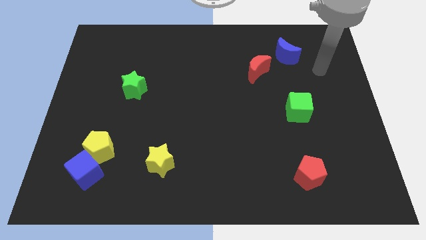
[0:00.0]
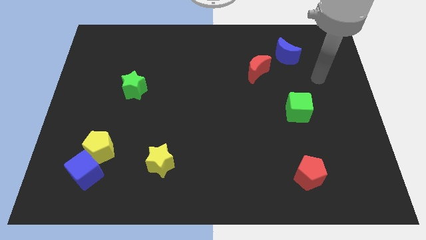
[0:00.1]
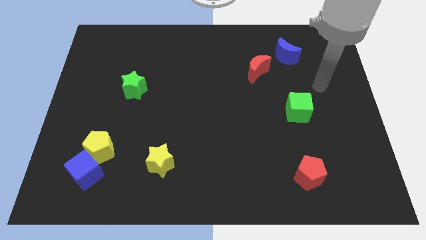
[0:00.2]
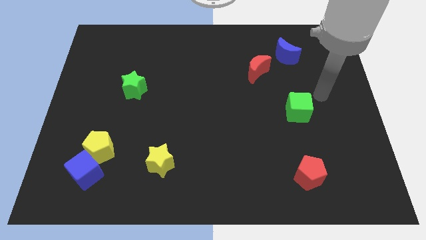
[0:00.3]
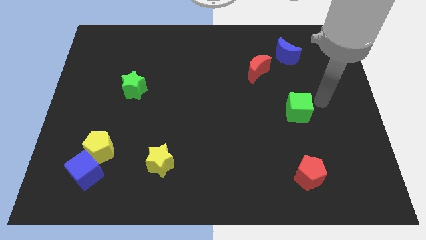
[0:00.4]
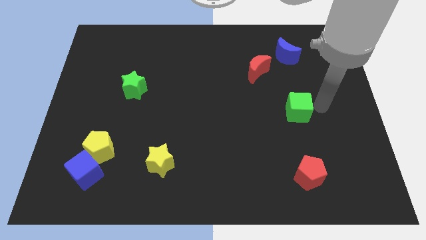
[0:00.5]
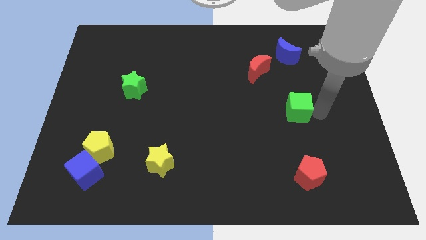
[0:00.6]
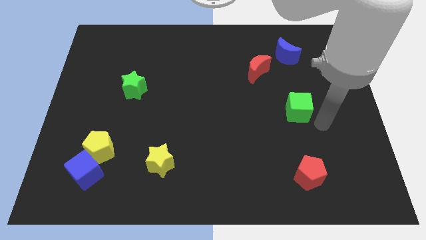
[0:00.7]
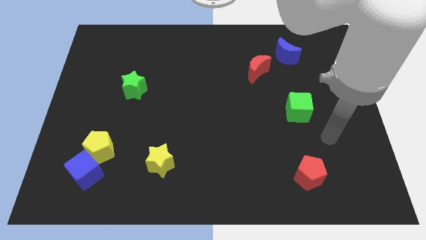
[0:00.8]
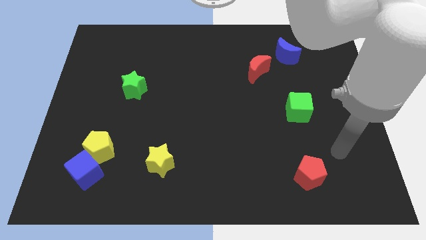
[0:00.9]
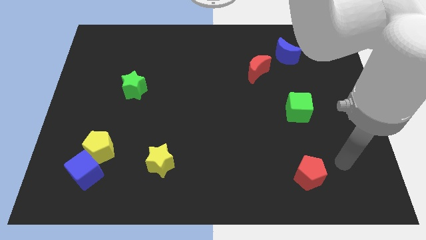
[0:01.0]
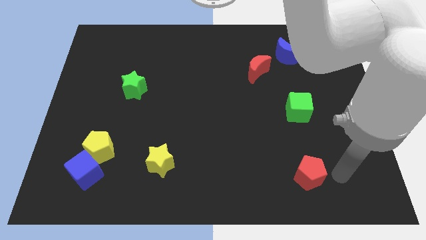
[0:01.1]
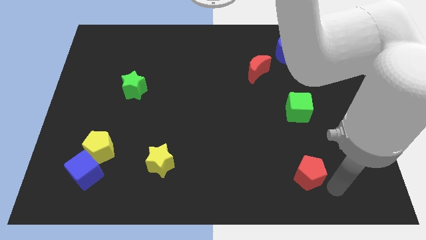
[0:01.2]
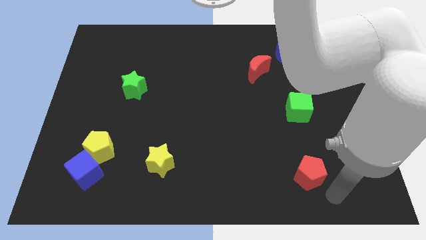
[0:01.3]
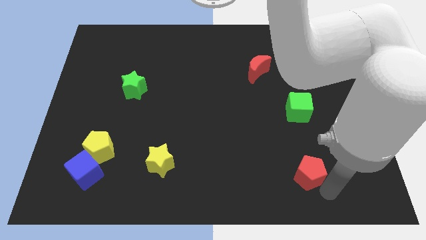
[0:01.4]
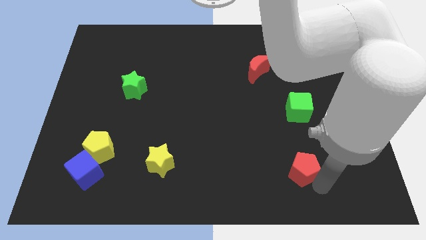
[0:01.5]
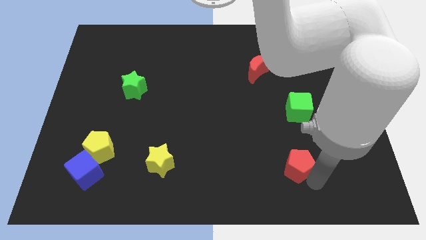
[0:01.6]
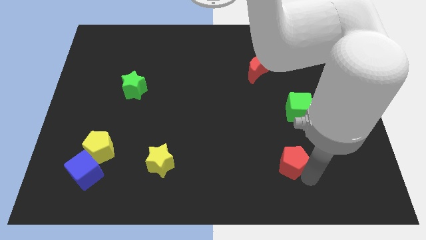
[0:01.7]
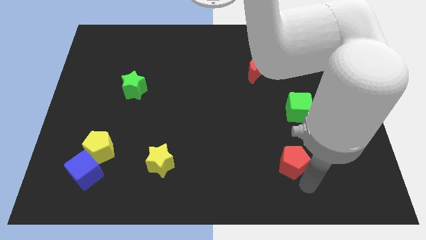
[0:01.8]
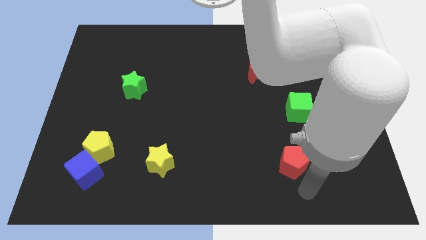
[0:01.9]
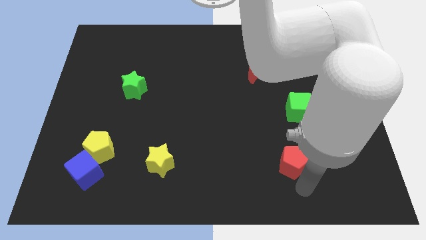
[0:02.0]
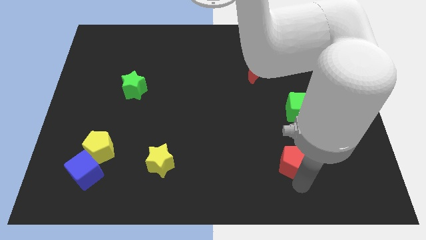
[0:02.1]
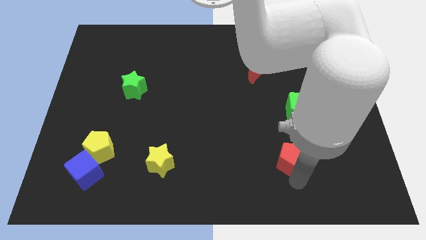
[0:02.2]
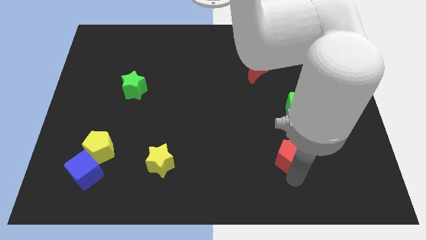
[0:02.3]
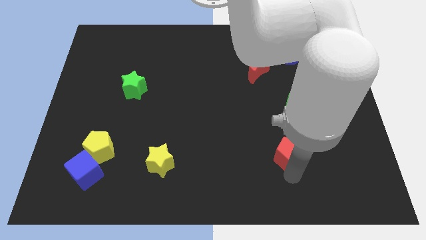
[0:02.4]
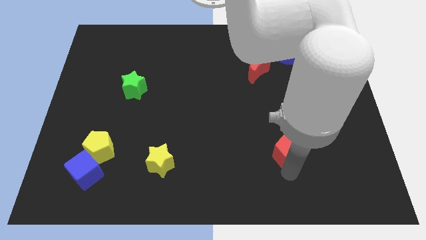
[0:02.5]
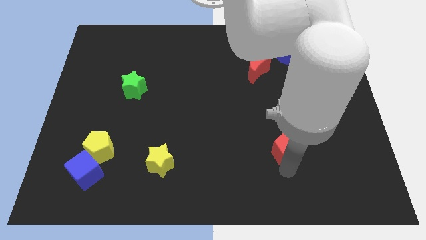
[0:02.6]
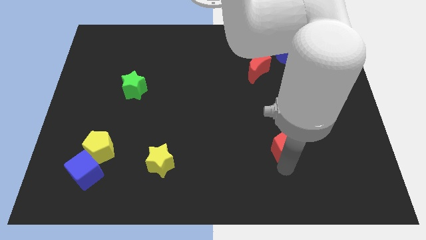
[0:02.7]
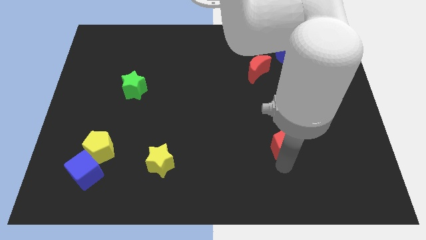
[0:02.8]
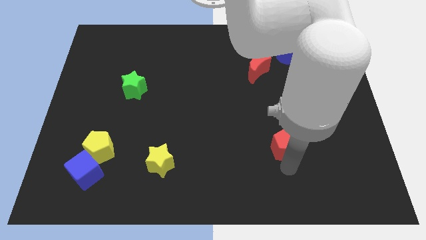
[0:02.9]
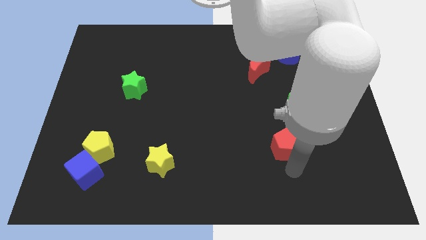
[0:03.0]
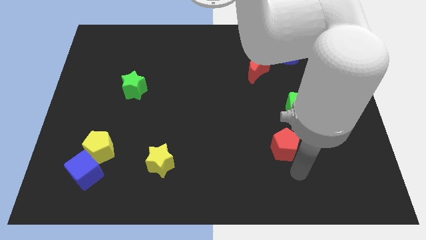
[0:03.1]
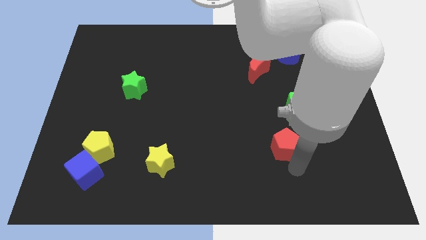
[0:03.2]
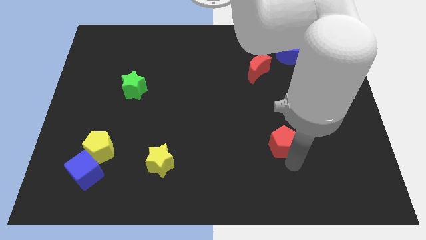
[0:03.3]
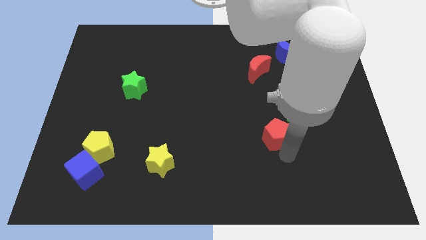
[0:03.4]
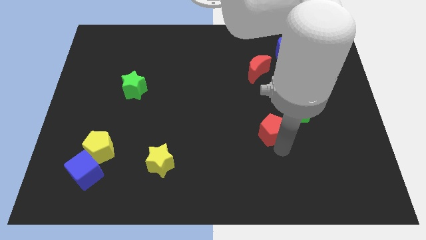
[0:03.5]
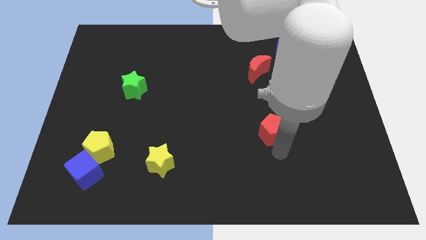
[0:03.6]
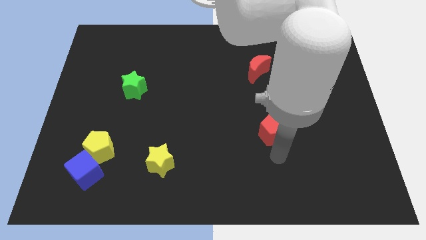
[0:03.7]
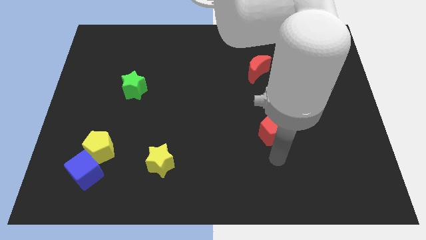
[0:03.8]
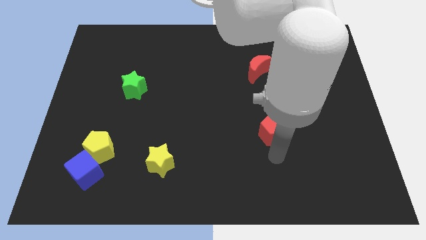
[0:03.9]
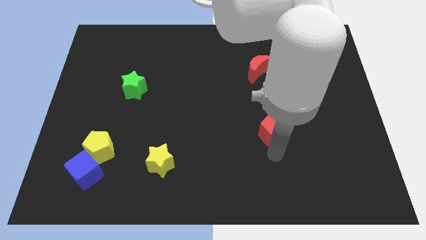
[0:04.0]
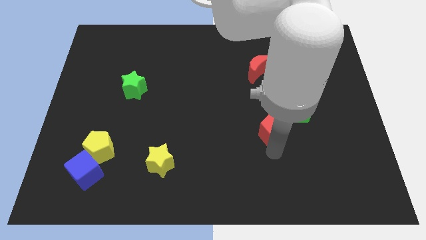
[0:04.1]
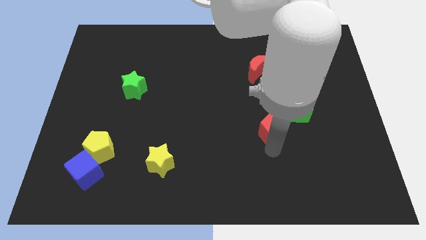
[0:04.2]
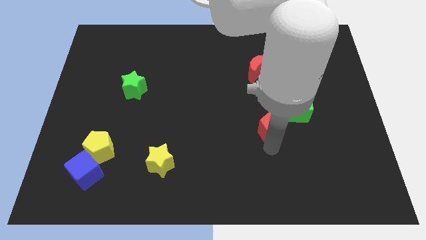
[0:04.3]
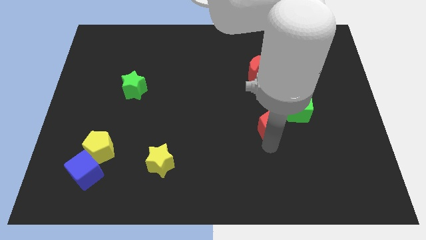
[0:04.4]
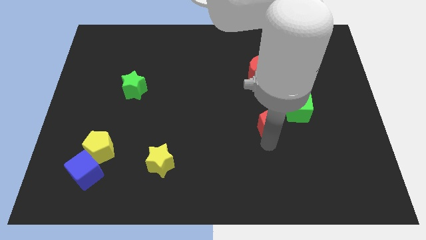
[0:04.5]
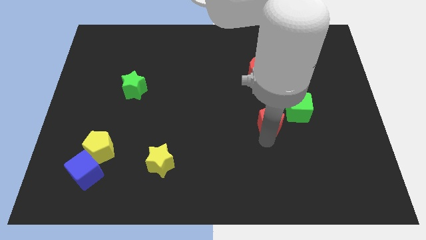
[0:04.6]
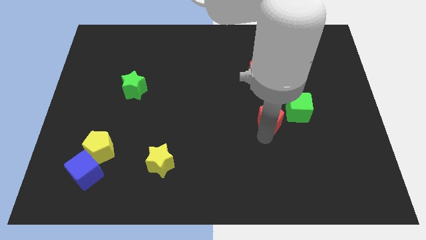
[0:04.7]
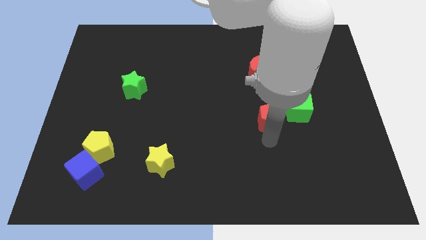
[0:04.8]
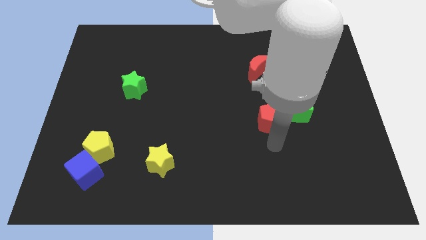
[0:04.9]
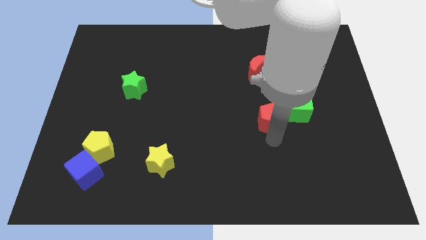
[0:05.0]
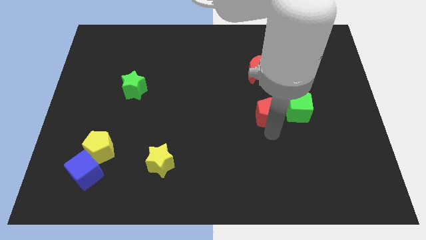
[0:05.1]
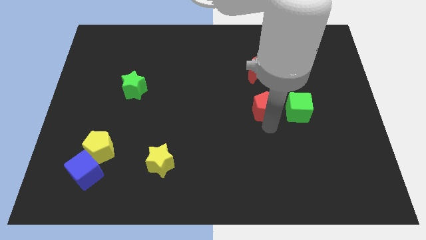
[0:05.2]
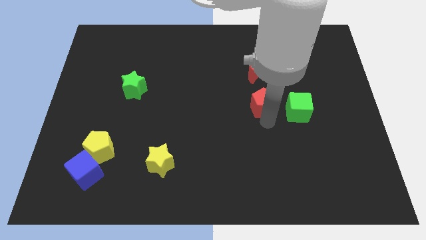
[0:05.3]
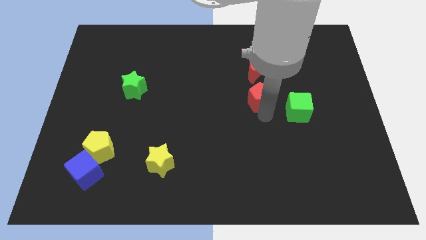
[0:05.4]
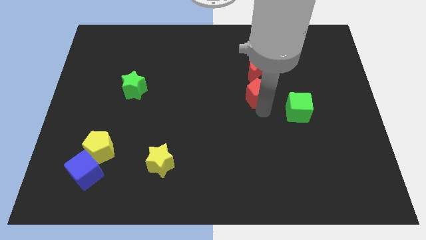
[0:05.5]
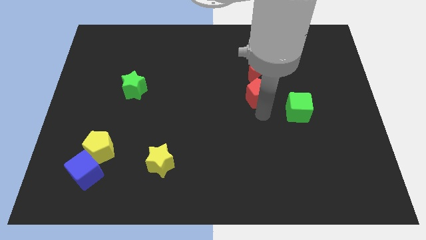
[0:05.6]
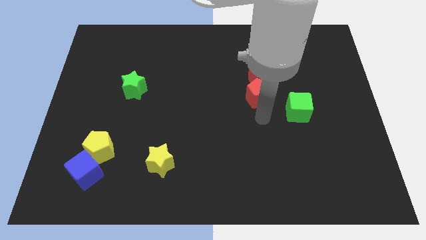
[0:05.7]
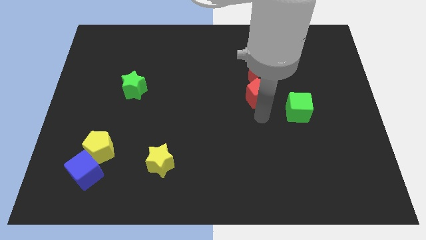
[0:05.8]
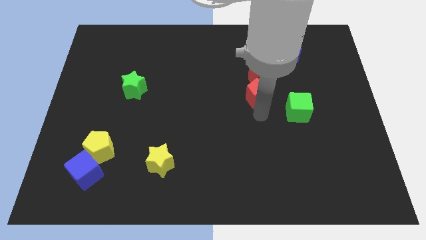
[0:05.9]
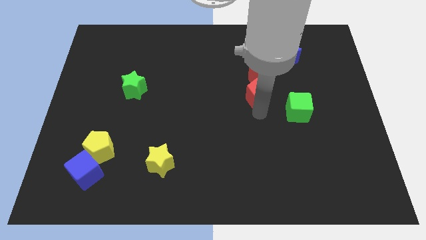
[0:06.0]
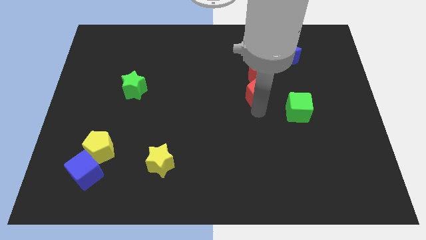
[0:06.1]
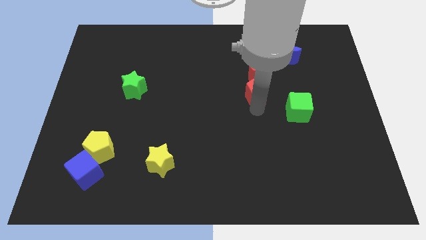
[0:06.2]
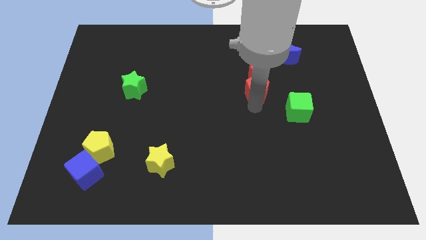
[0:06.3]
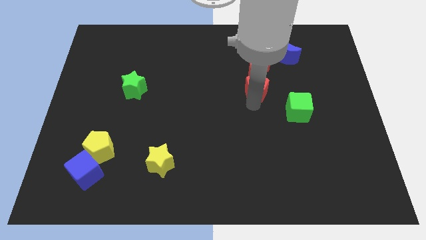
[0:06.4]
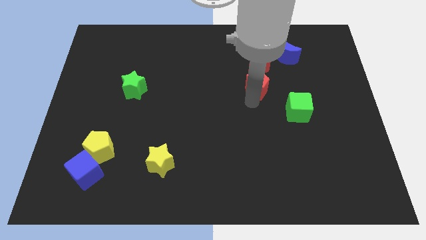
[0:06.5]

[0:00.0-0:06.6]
slide the red pentagon to the red moon

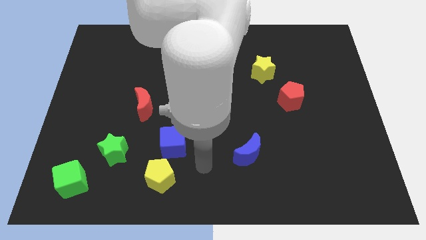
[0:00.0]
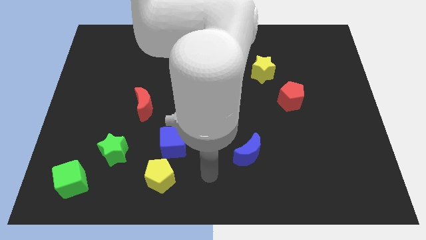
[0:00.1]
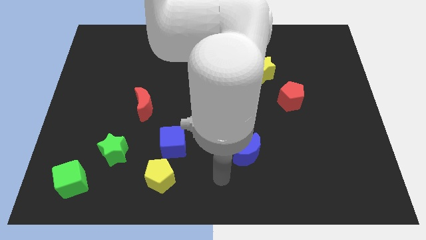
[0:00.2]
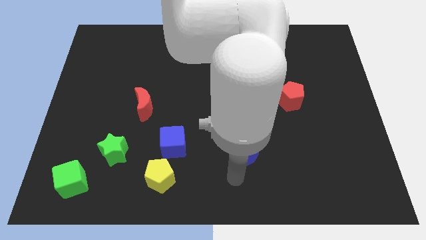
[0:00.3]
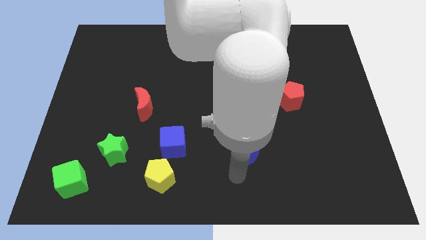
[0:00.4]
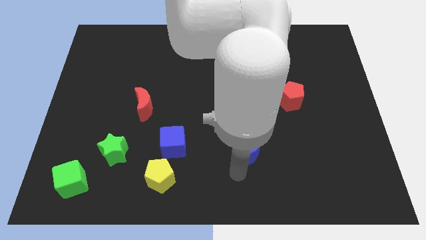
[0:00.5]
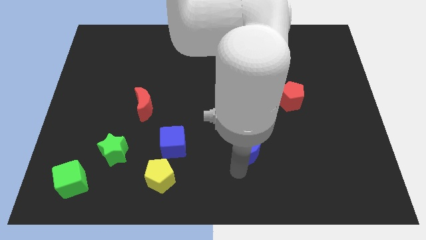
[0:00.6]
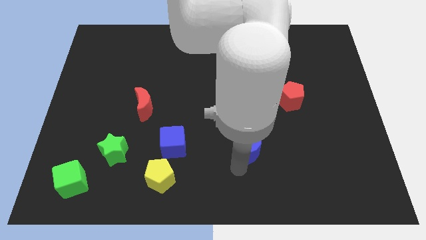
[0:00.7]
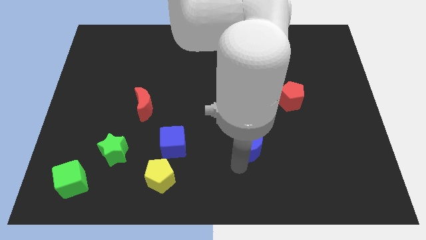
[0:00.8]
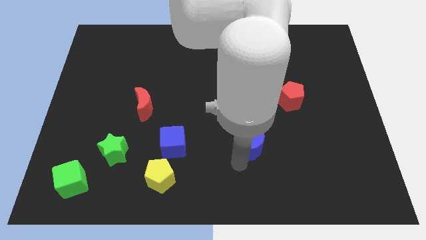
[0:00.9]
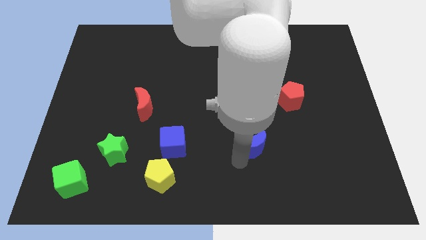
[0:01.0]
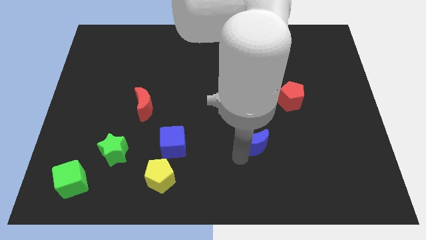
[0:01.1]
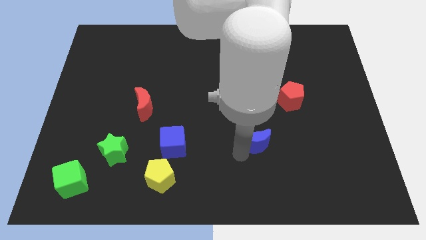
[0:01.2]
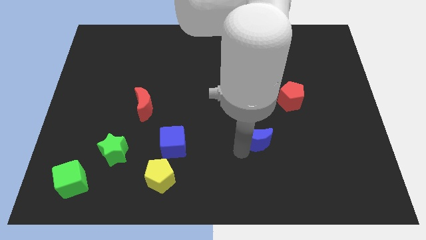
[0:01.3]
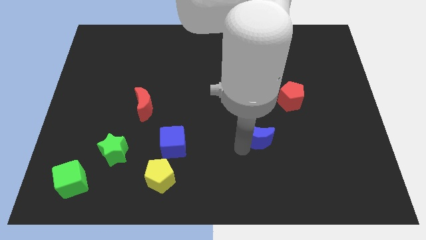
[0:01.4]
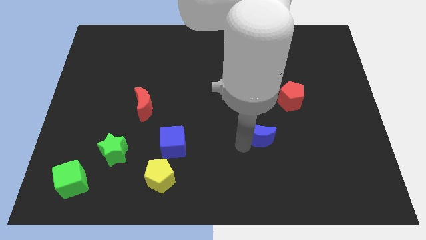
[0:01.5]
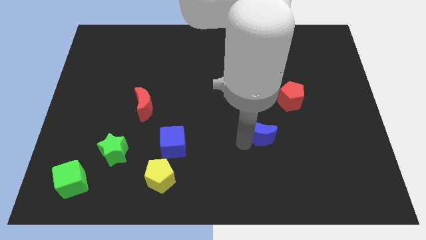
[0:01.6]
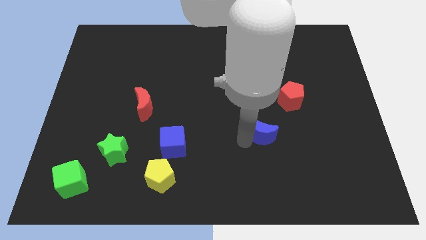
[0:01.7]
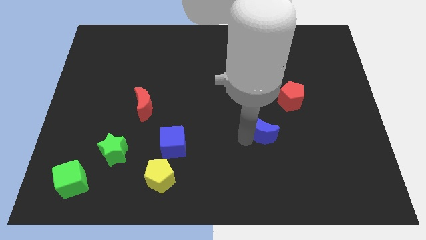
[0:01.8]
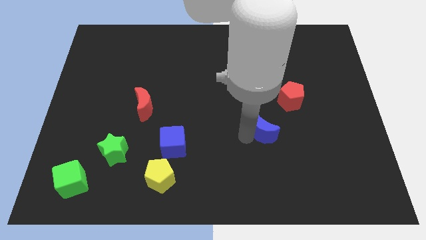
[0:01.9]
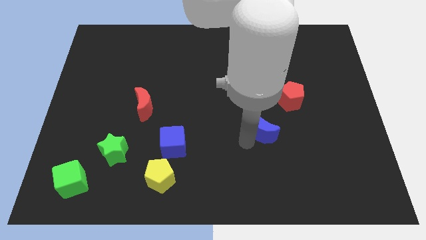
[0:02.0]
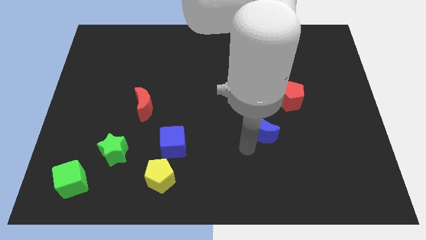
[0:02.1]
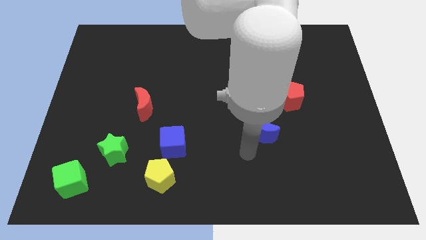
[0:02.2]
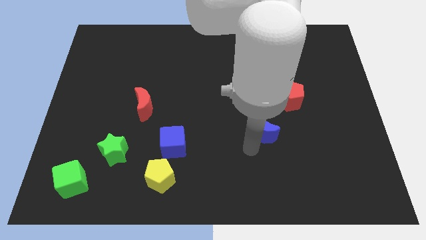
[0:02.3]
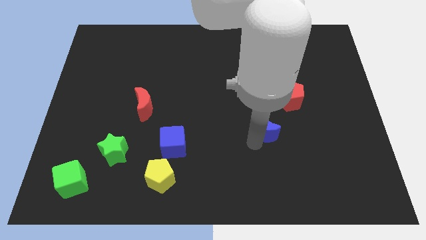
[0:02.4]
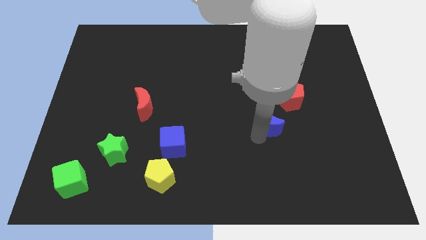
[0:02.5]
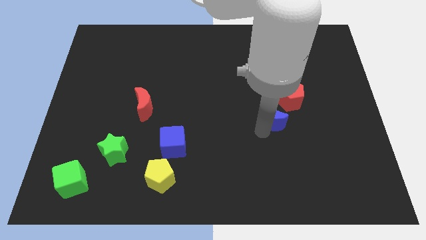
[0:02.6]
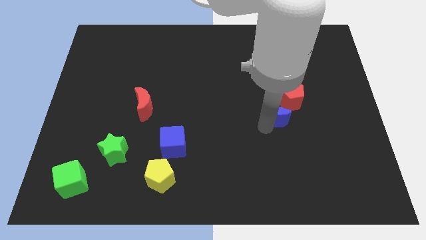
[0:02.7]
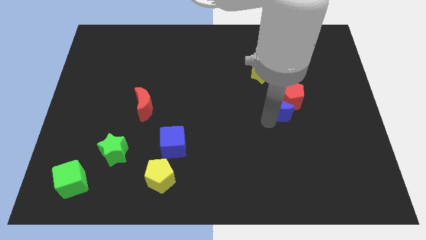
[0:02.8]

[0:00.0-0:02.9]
put the blue moon towards the red pentagon
